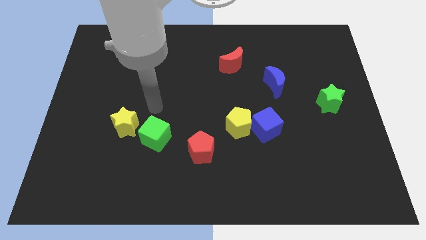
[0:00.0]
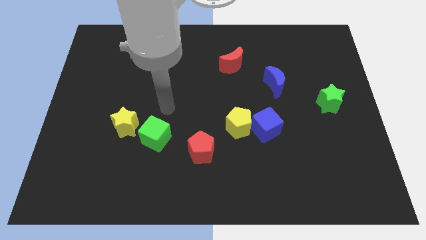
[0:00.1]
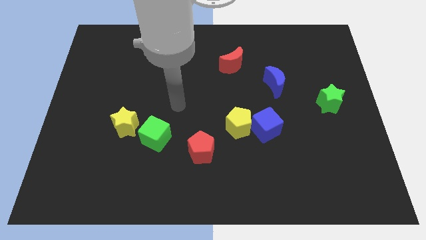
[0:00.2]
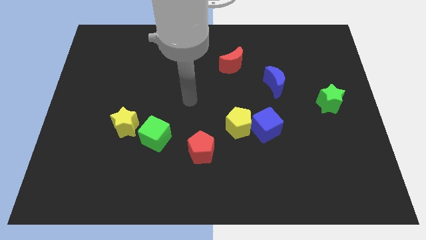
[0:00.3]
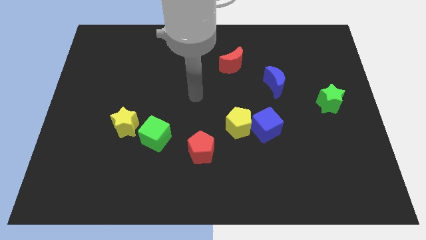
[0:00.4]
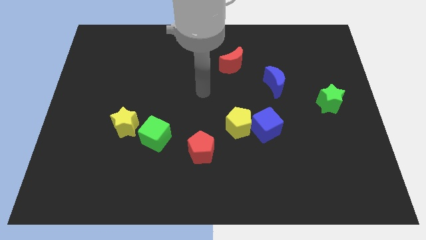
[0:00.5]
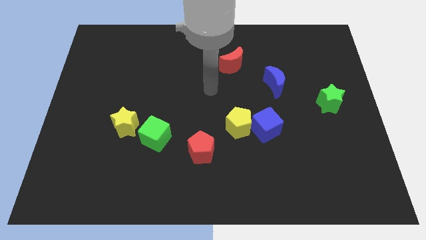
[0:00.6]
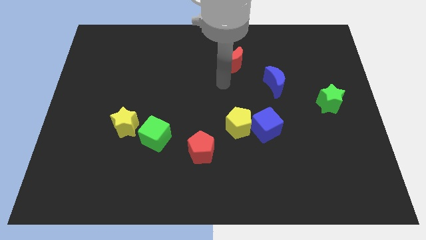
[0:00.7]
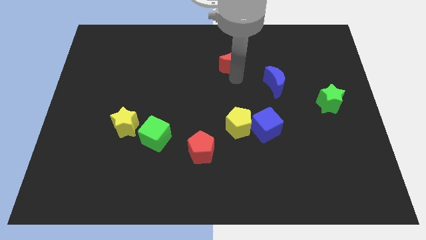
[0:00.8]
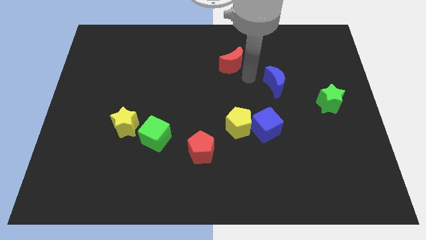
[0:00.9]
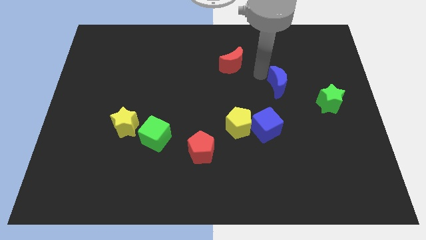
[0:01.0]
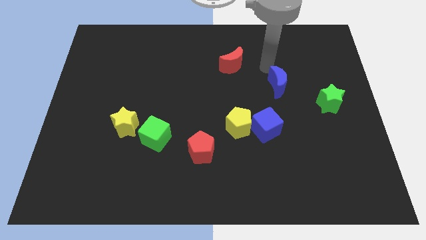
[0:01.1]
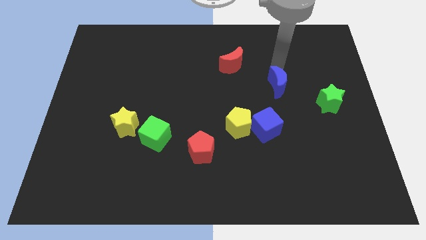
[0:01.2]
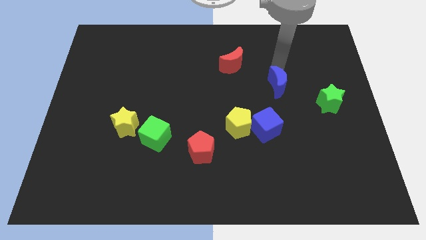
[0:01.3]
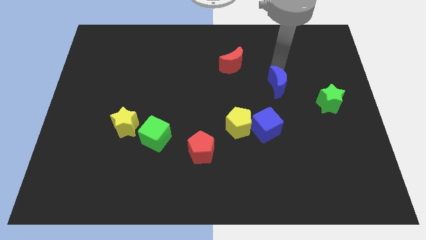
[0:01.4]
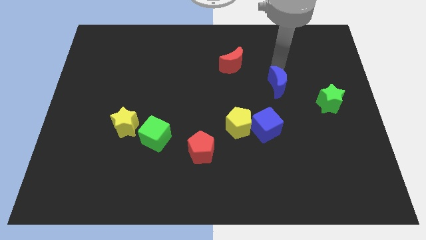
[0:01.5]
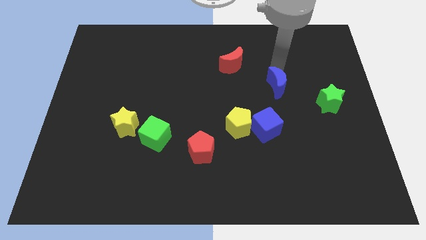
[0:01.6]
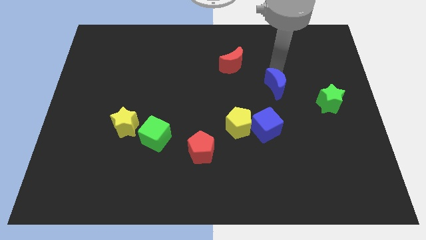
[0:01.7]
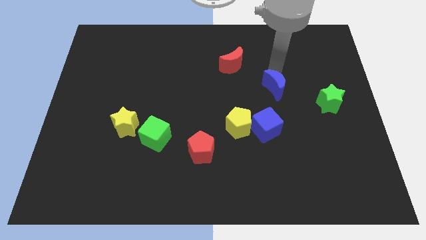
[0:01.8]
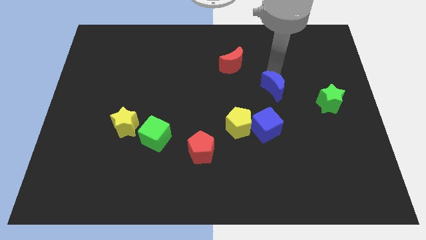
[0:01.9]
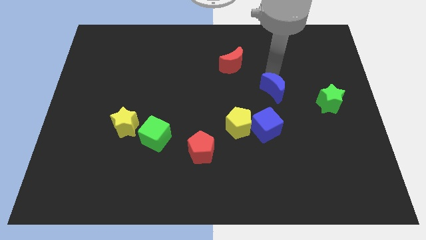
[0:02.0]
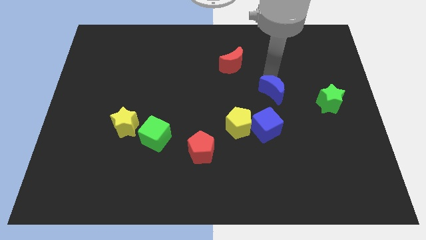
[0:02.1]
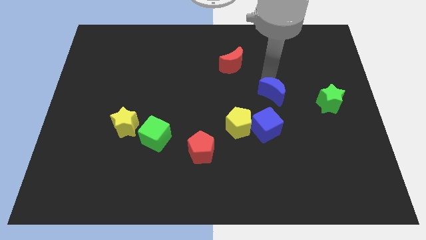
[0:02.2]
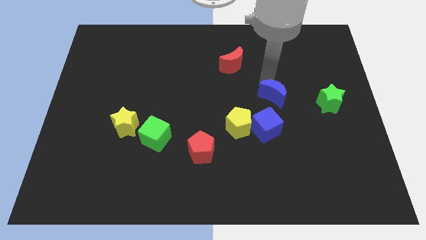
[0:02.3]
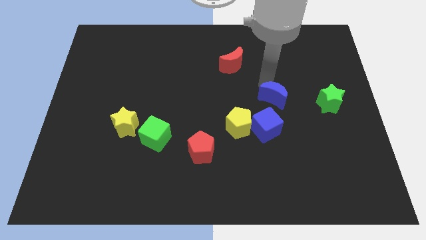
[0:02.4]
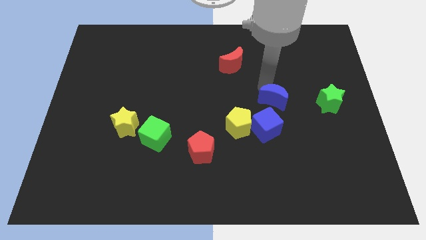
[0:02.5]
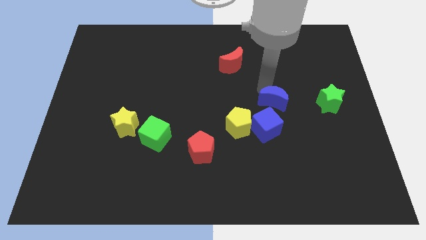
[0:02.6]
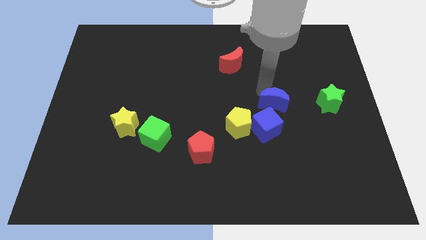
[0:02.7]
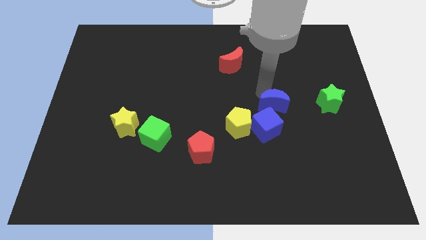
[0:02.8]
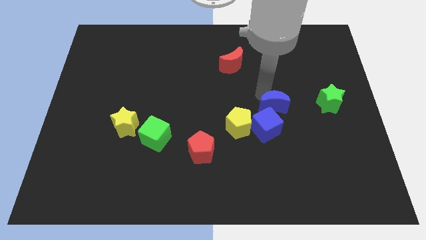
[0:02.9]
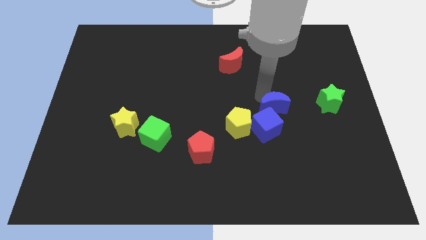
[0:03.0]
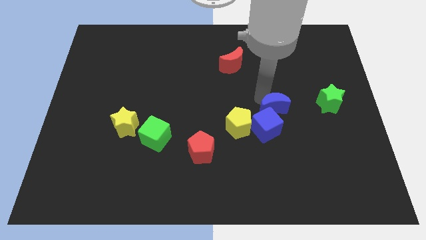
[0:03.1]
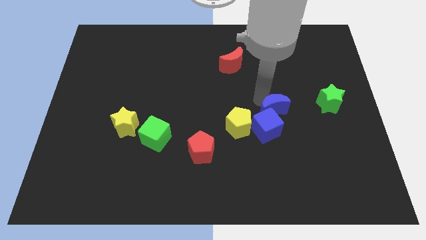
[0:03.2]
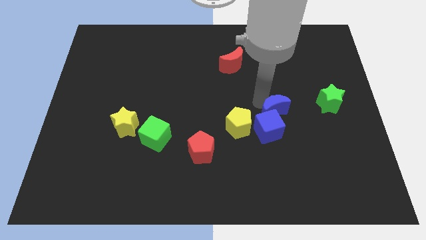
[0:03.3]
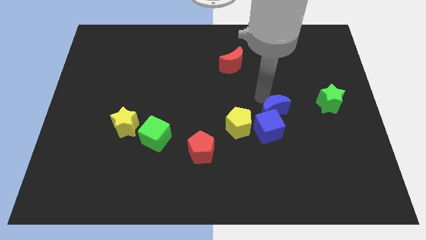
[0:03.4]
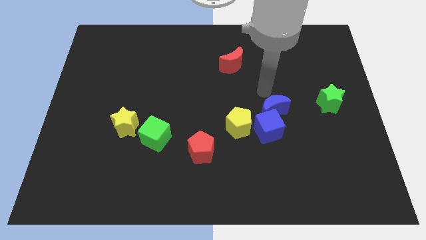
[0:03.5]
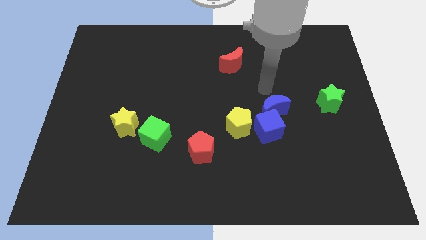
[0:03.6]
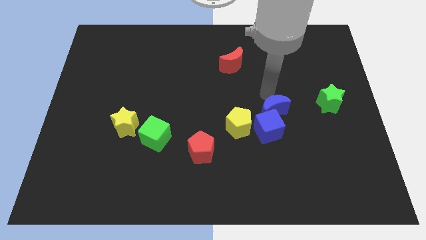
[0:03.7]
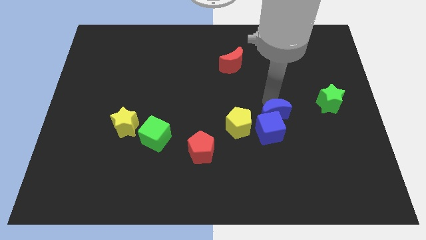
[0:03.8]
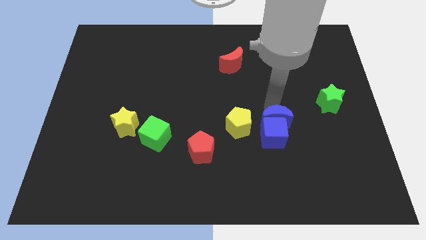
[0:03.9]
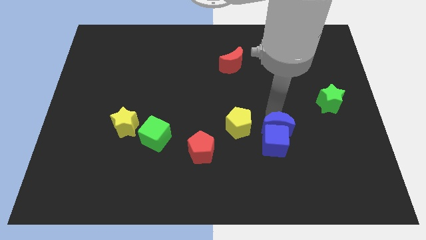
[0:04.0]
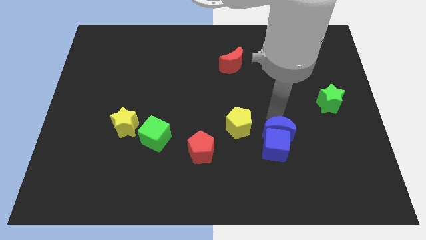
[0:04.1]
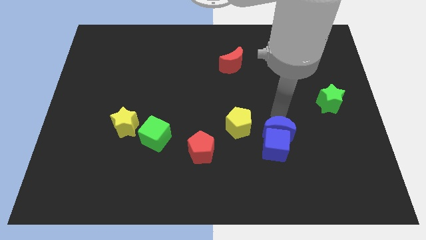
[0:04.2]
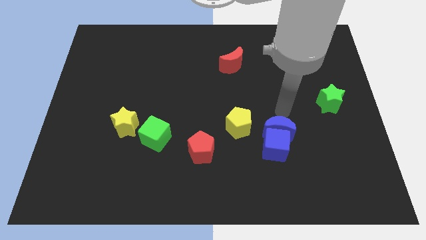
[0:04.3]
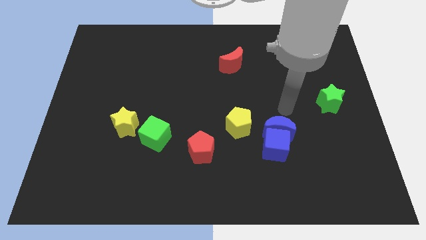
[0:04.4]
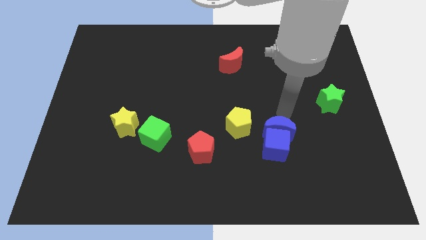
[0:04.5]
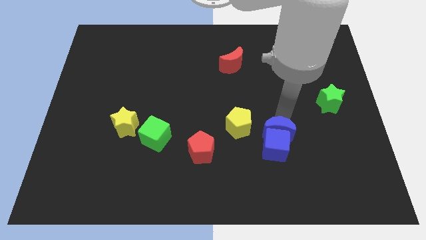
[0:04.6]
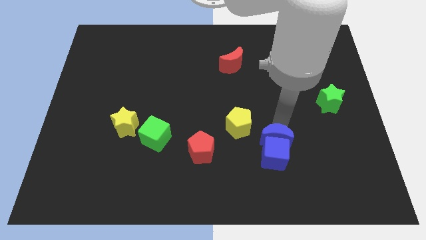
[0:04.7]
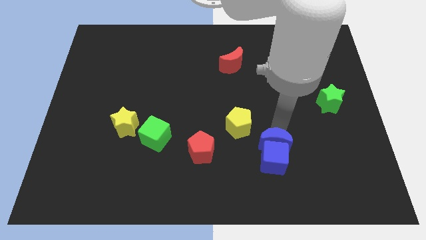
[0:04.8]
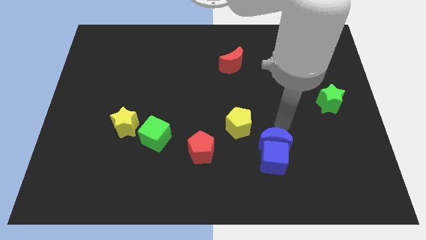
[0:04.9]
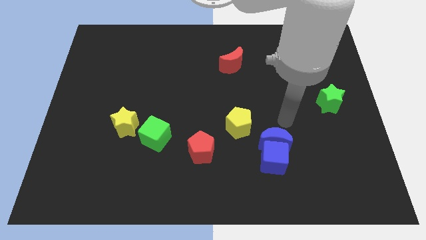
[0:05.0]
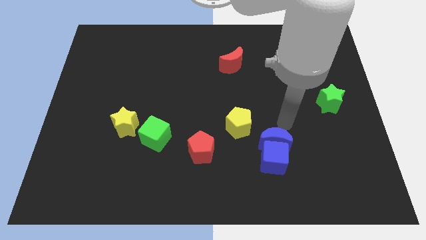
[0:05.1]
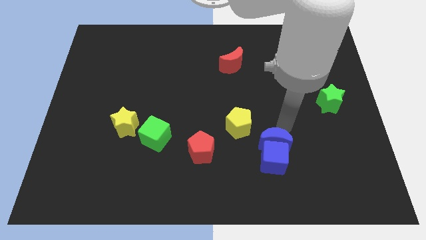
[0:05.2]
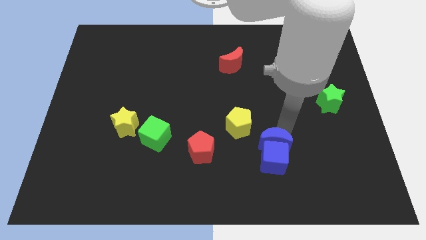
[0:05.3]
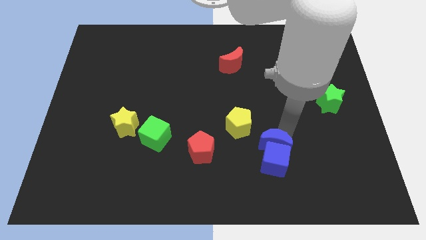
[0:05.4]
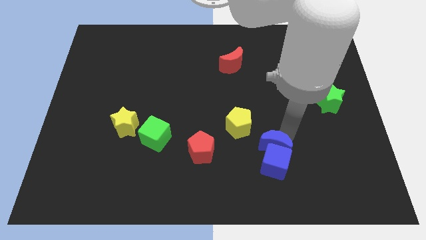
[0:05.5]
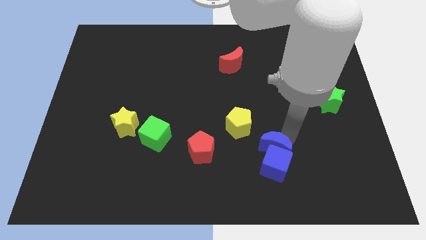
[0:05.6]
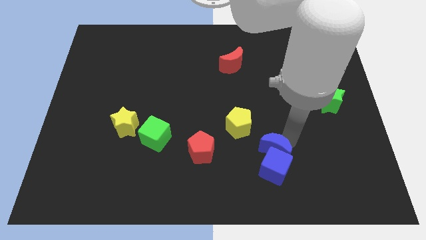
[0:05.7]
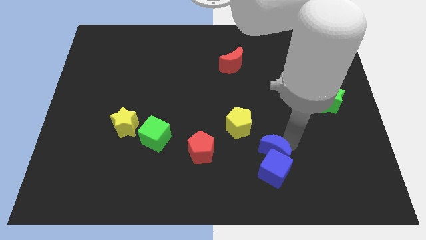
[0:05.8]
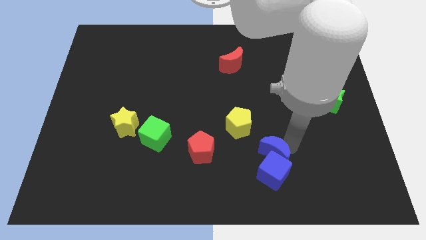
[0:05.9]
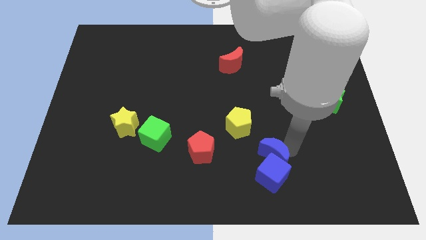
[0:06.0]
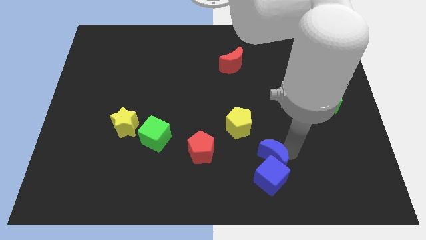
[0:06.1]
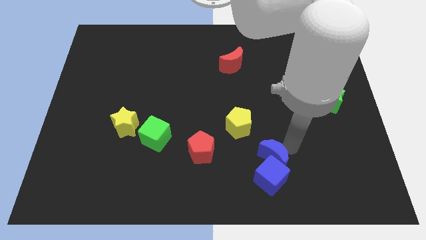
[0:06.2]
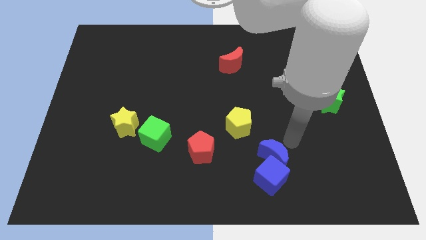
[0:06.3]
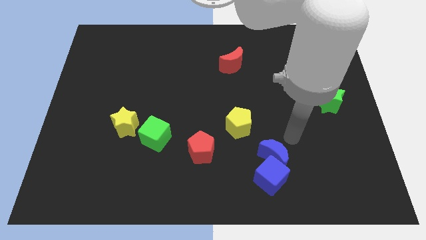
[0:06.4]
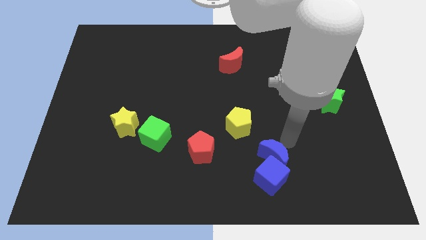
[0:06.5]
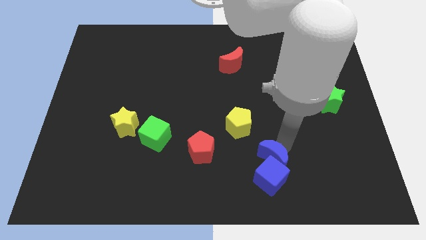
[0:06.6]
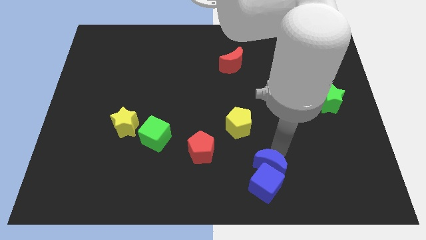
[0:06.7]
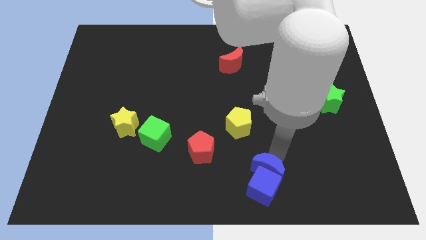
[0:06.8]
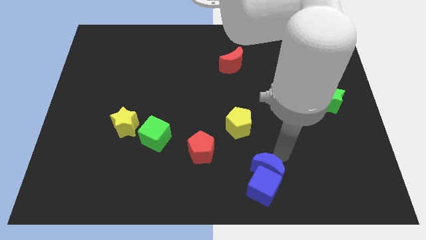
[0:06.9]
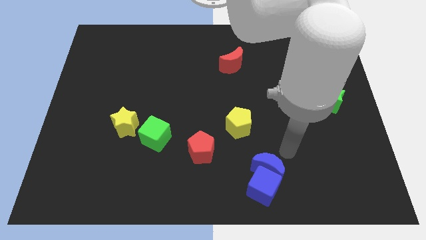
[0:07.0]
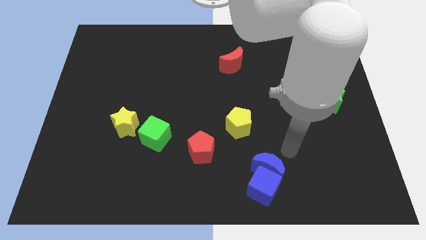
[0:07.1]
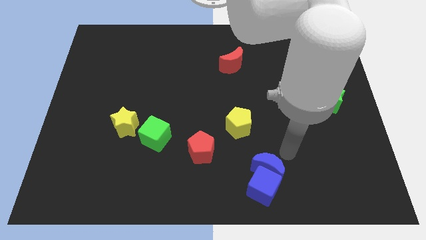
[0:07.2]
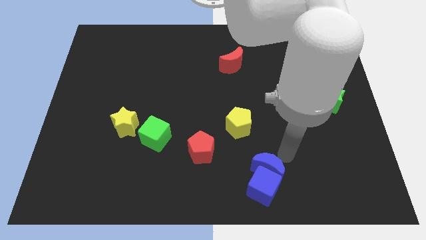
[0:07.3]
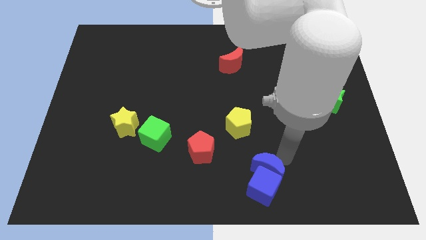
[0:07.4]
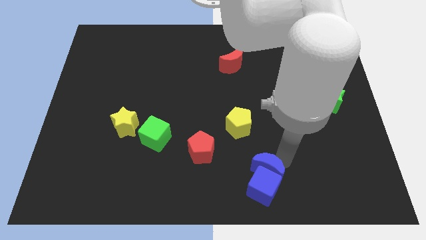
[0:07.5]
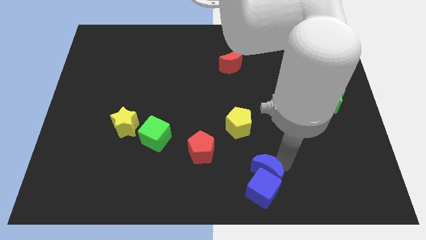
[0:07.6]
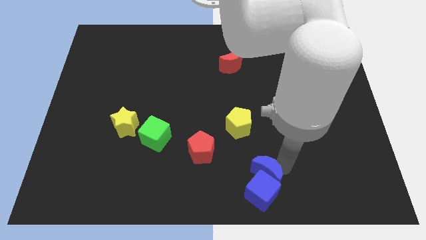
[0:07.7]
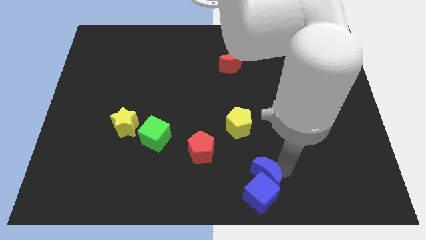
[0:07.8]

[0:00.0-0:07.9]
put the blue moon to the bottom side
